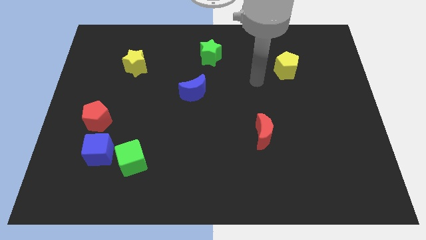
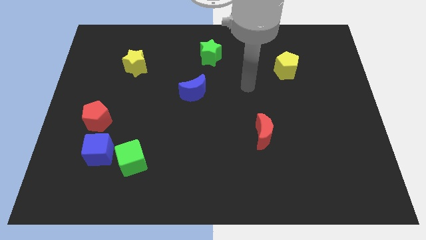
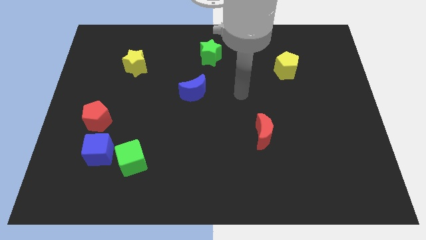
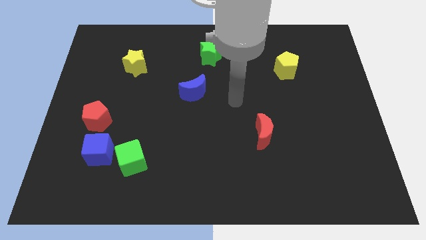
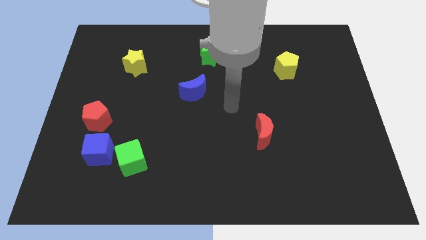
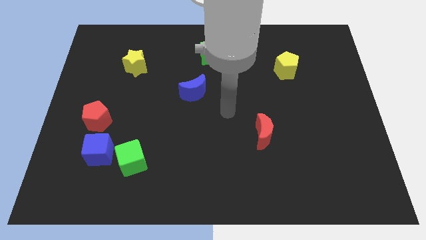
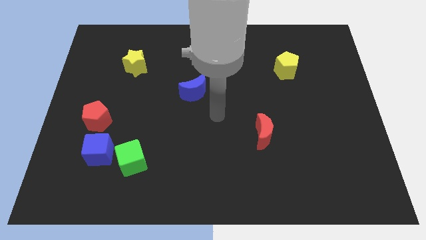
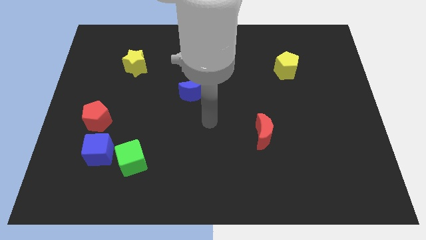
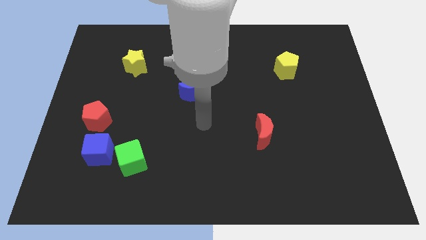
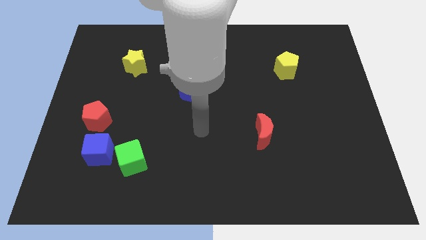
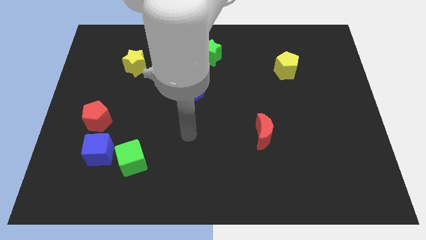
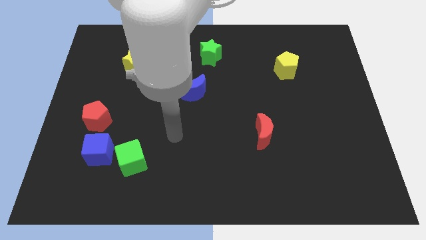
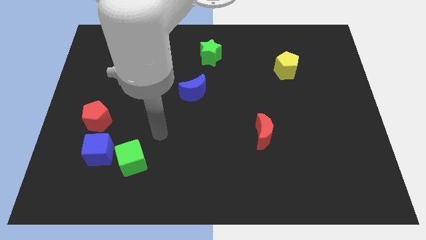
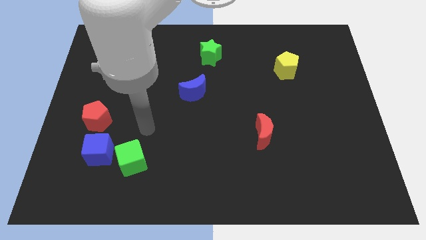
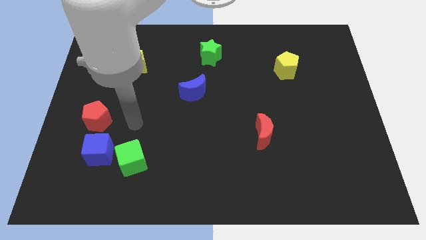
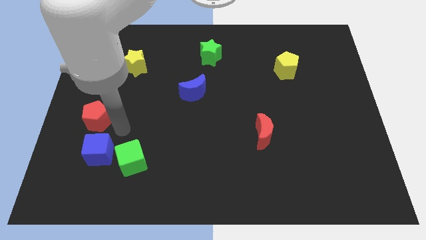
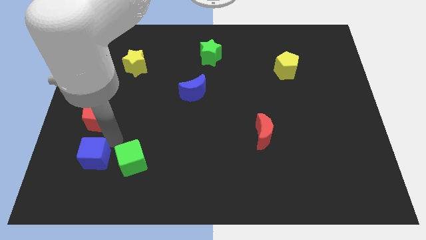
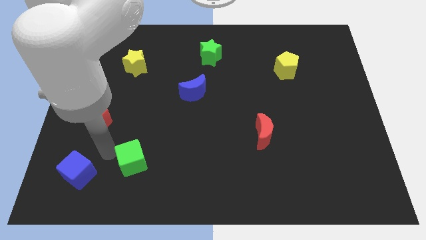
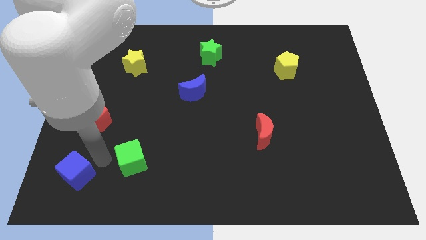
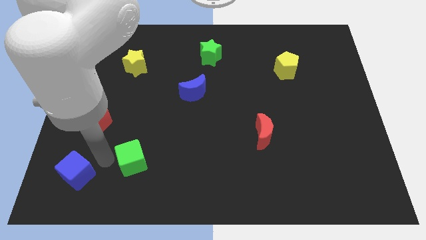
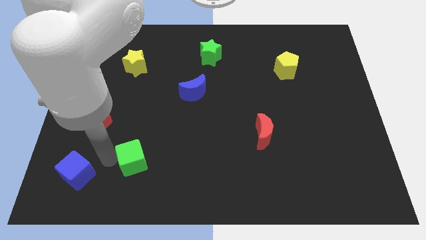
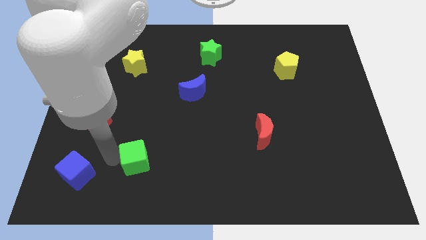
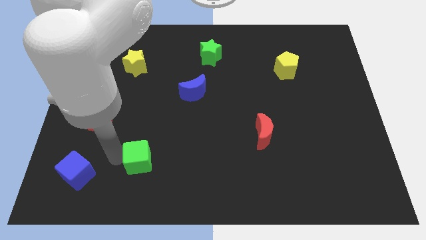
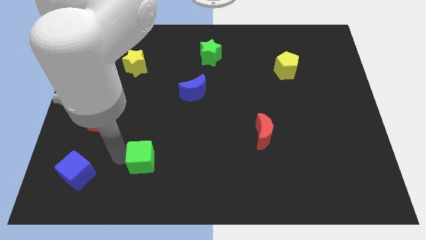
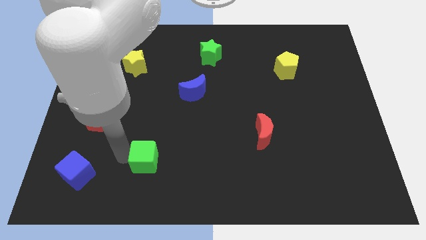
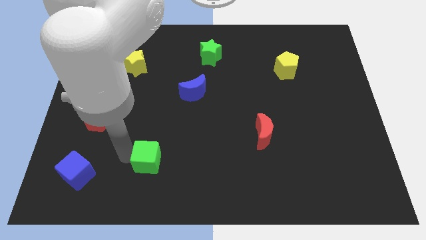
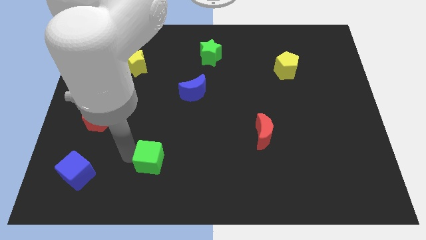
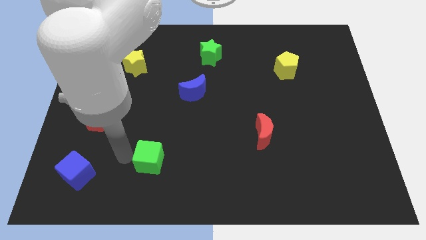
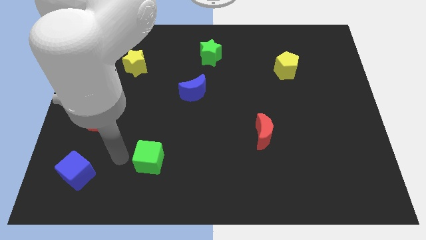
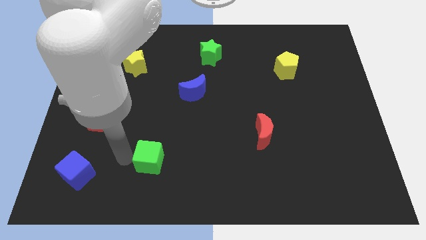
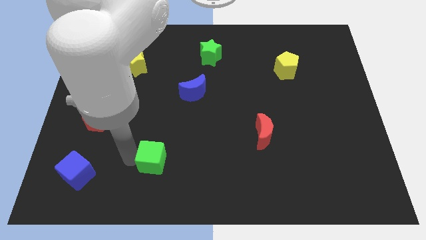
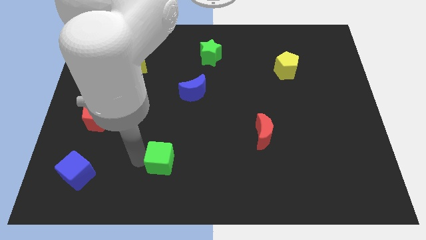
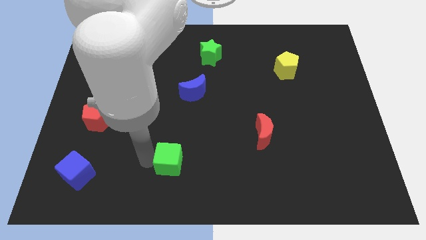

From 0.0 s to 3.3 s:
push the green cube slightly right

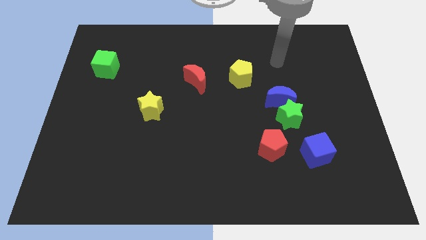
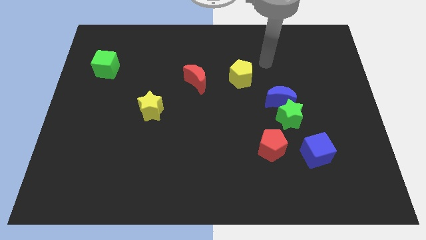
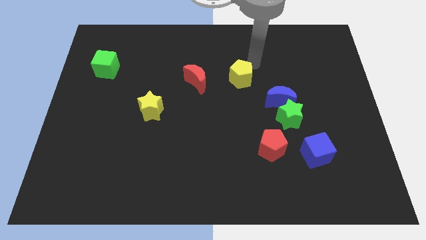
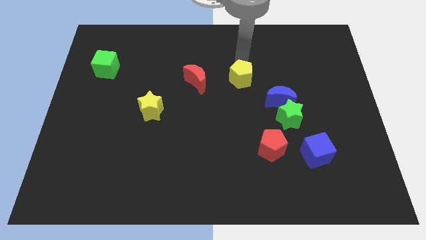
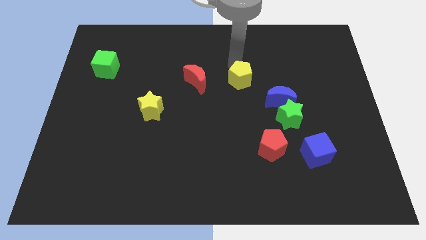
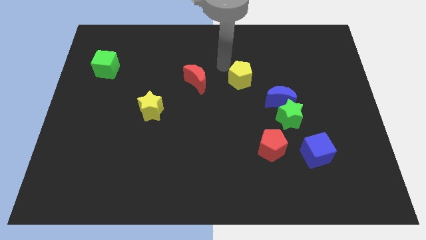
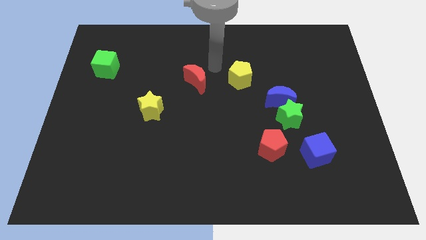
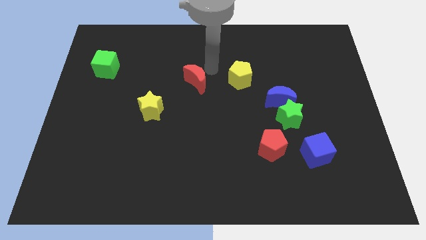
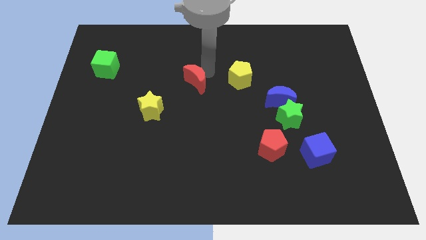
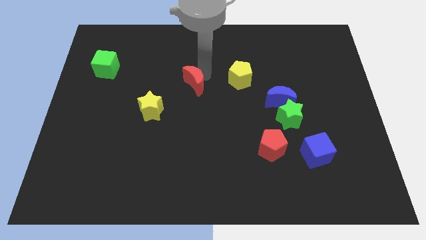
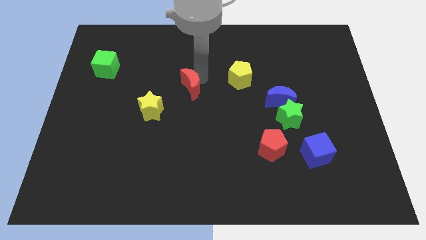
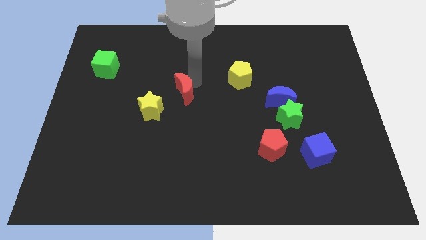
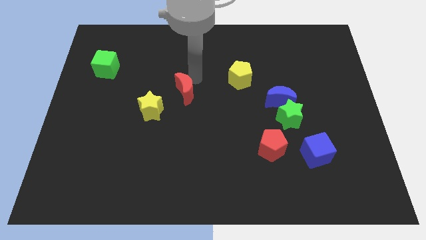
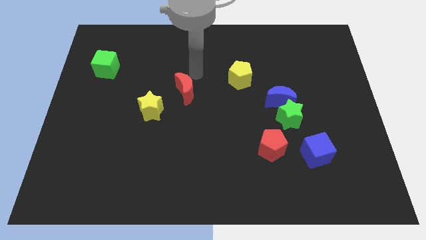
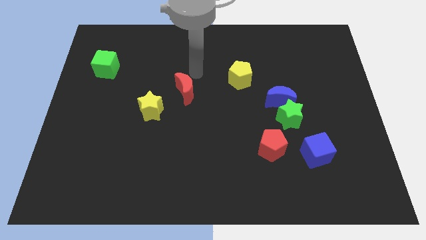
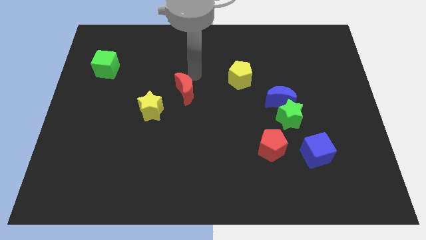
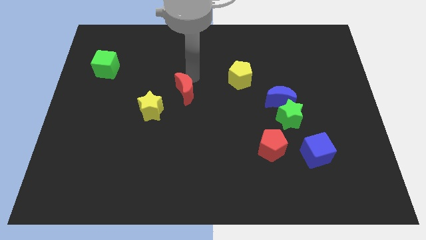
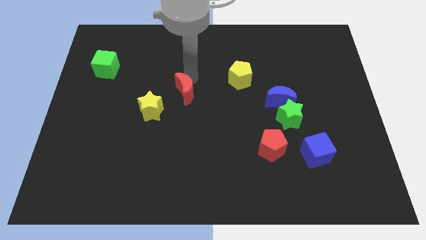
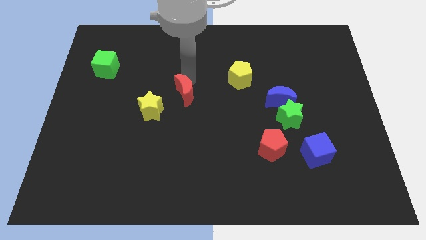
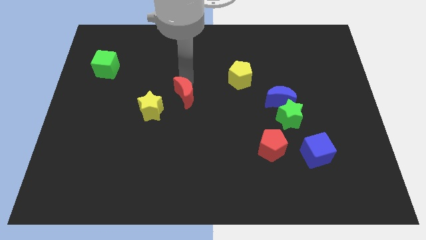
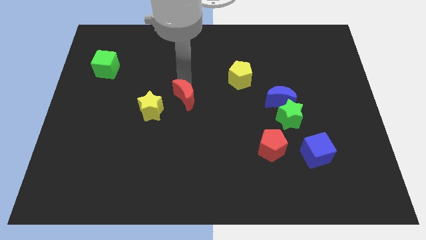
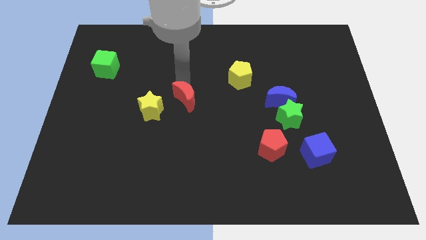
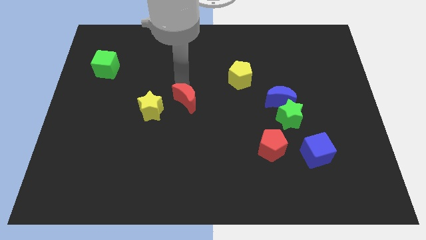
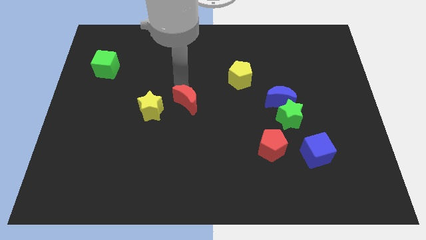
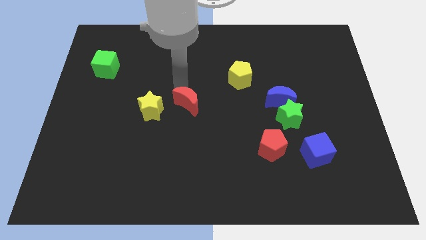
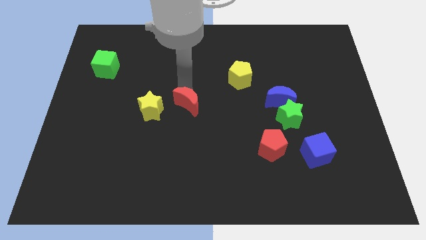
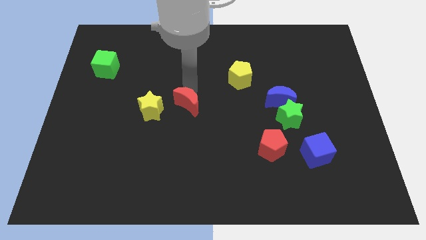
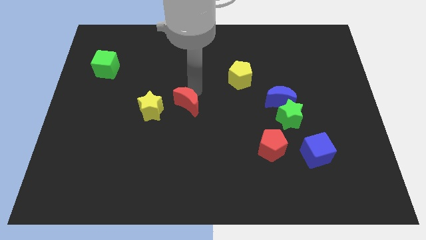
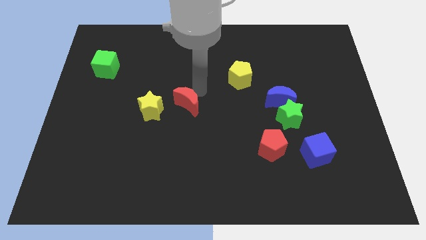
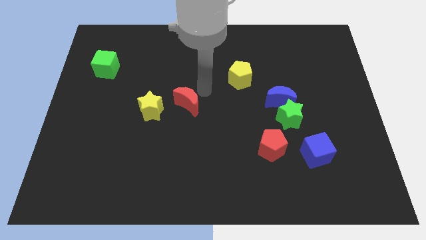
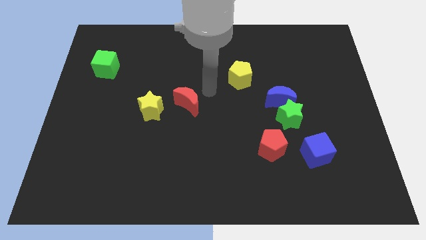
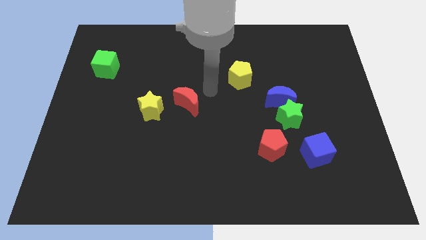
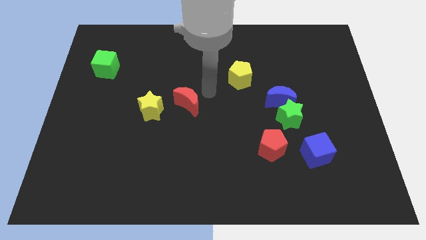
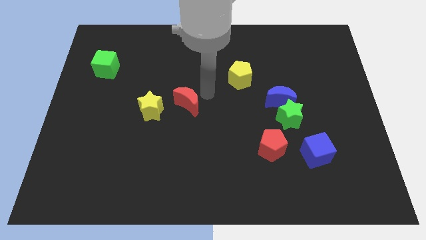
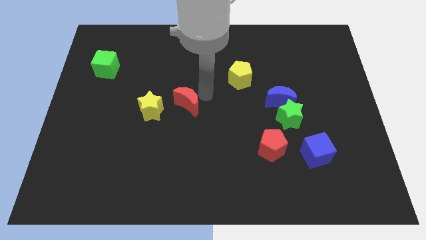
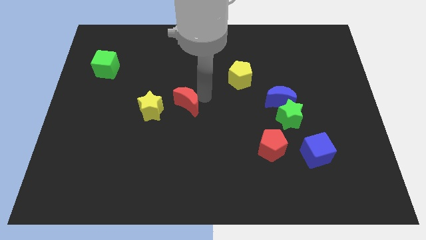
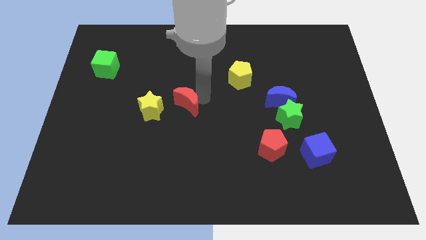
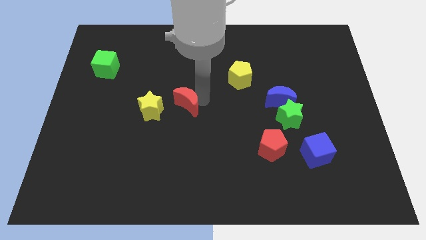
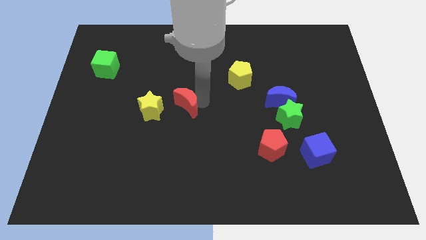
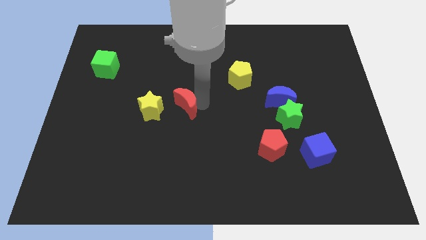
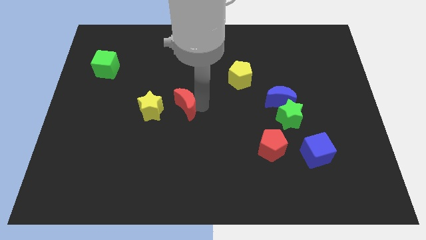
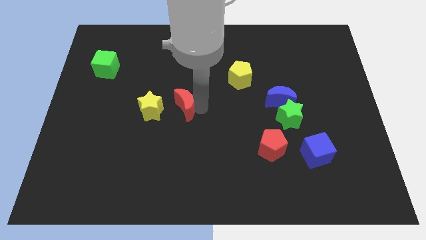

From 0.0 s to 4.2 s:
slide the red moon downwards and left a little

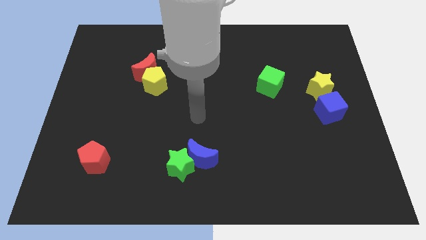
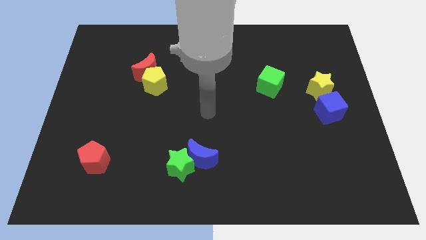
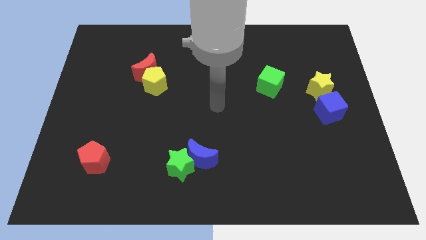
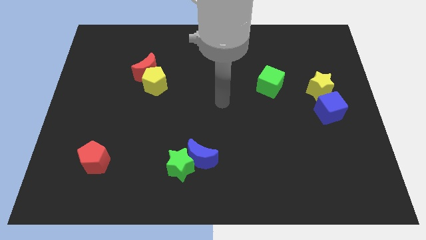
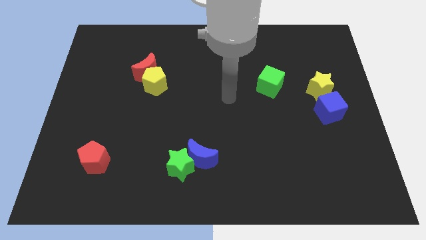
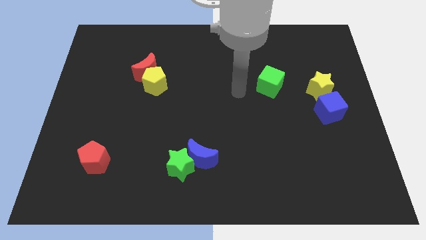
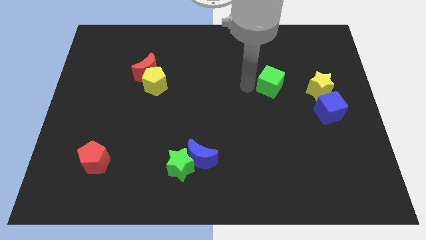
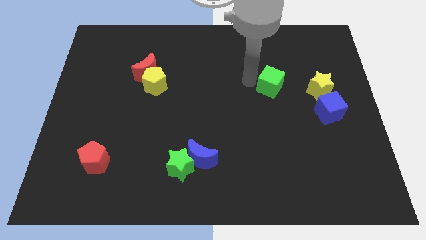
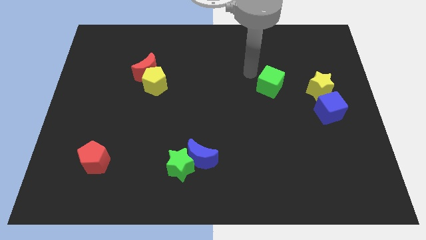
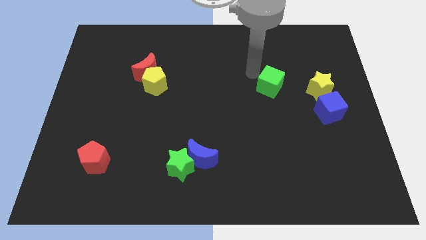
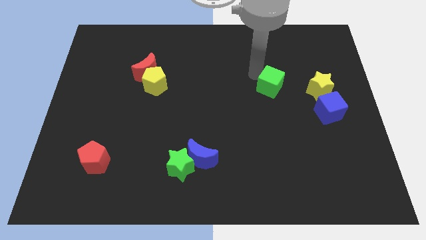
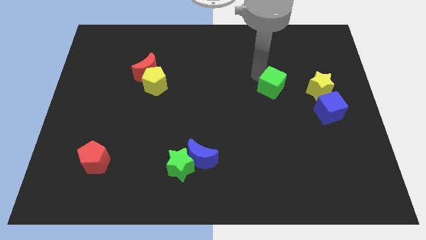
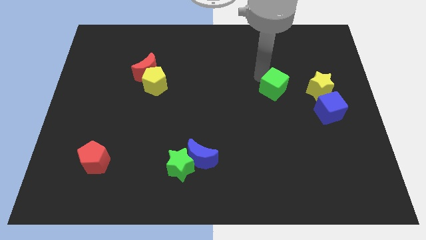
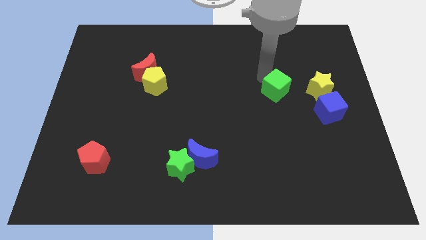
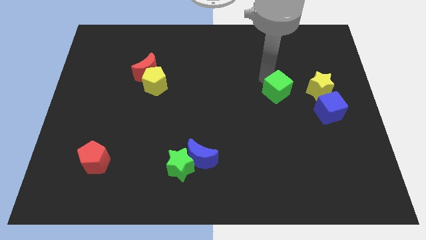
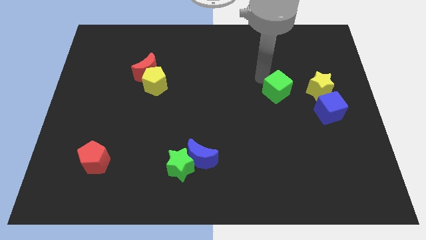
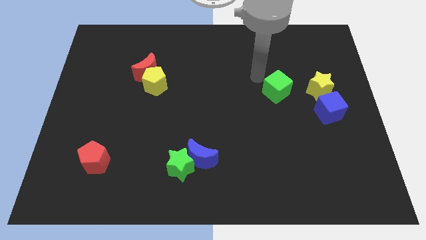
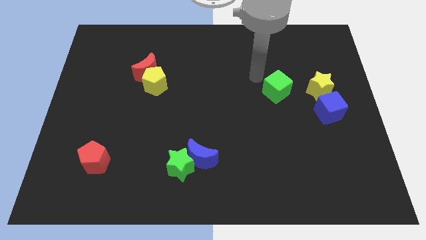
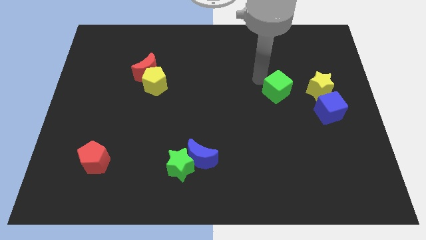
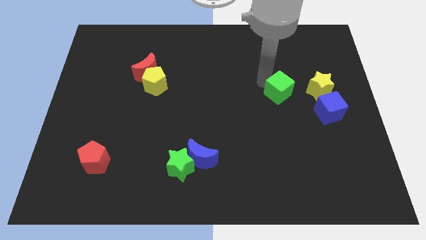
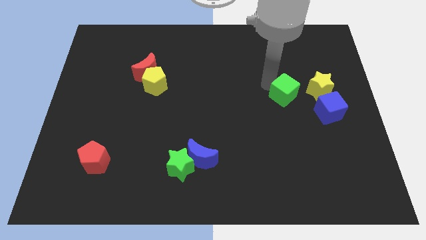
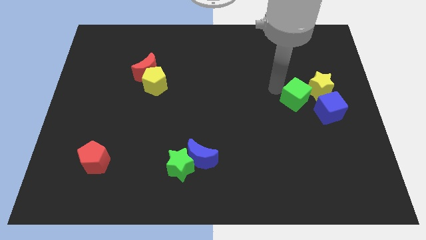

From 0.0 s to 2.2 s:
push the green cube slightly downwards and right diagonally
